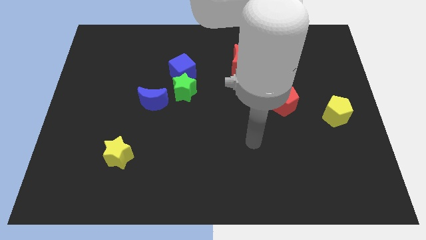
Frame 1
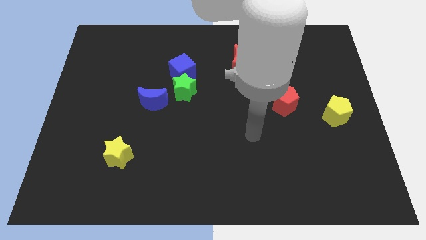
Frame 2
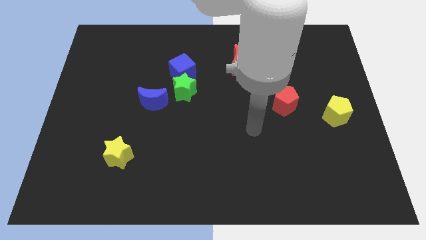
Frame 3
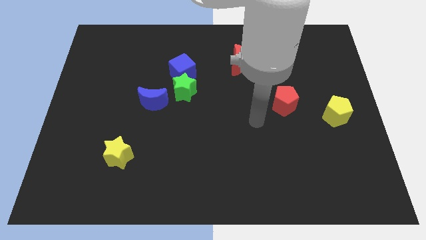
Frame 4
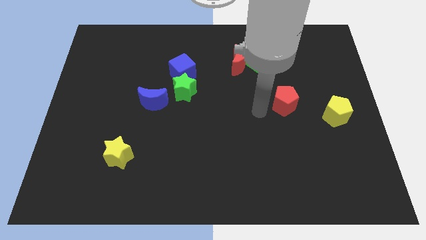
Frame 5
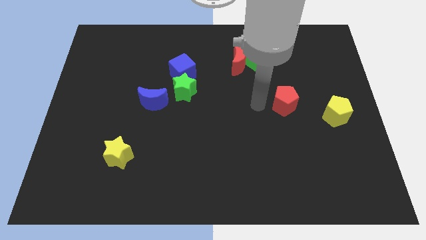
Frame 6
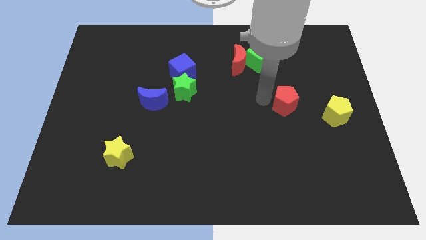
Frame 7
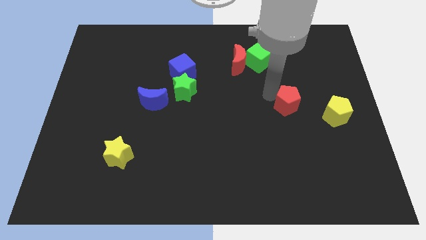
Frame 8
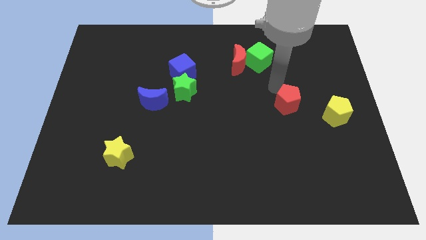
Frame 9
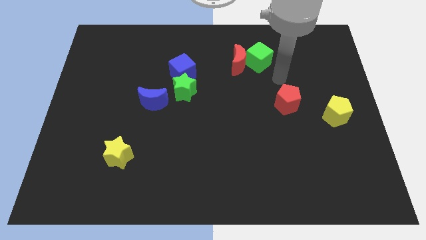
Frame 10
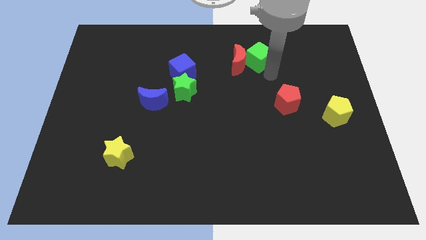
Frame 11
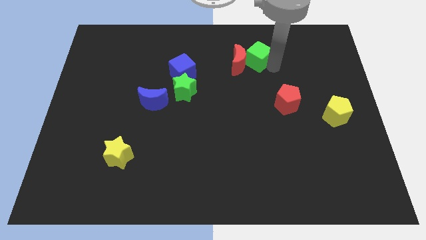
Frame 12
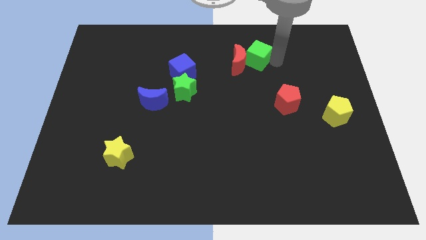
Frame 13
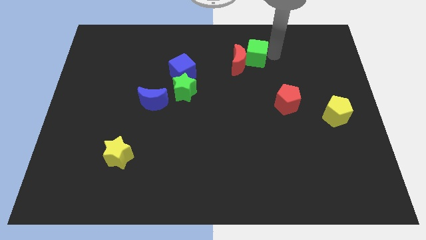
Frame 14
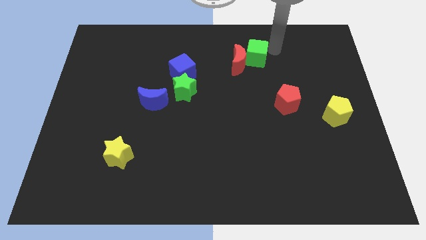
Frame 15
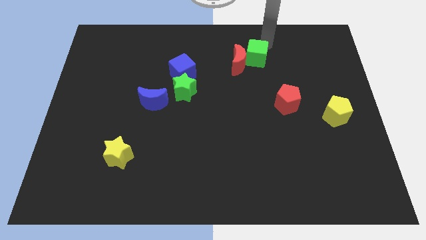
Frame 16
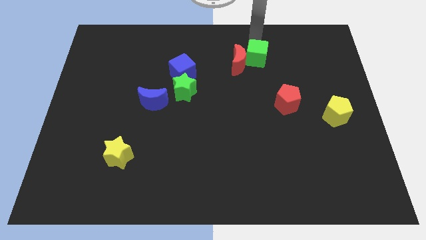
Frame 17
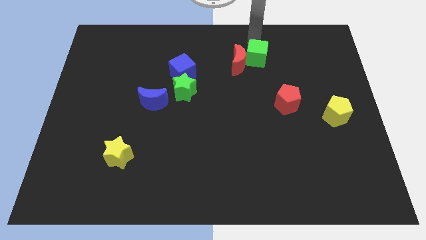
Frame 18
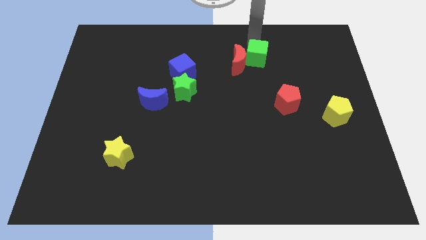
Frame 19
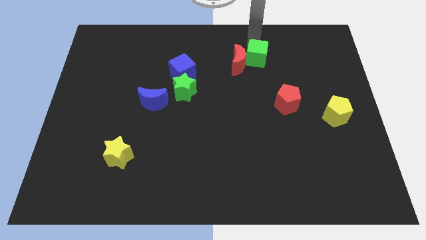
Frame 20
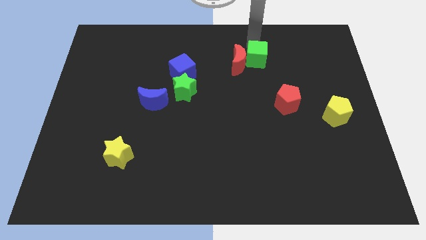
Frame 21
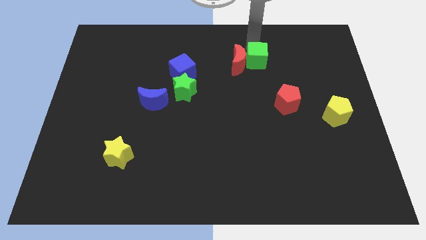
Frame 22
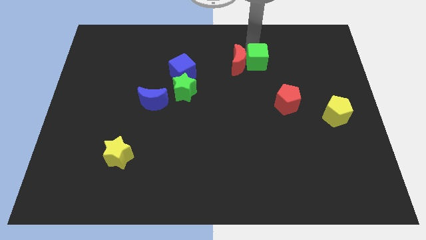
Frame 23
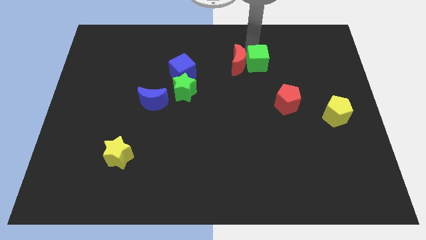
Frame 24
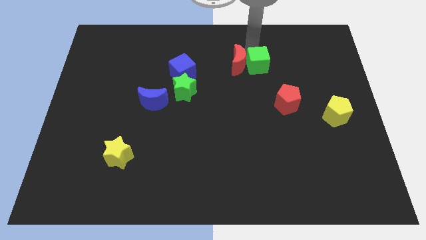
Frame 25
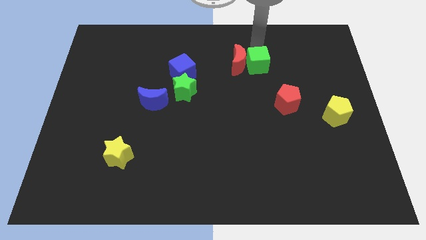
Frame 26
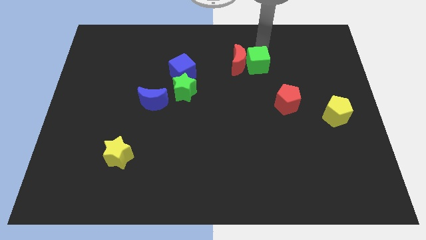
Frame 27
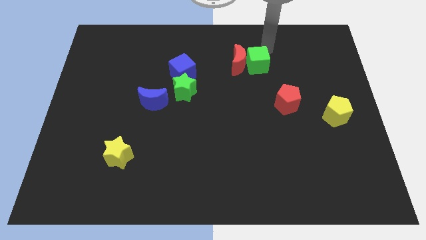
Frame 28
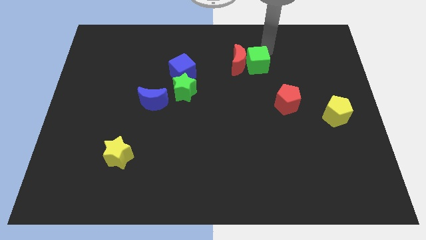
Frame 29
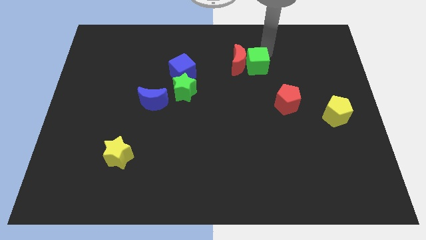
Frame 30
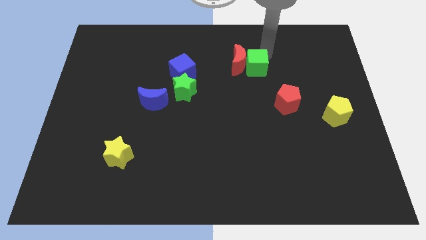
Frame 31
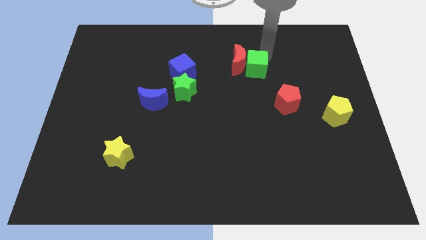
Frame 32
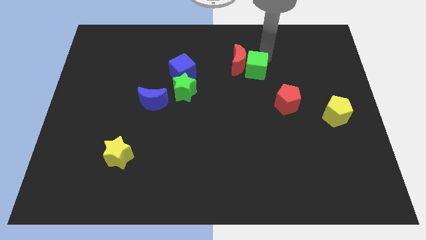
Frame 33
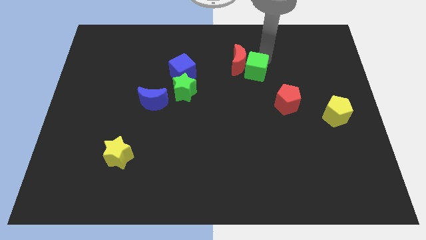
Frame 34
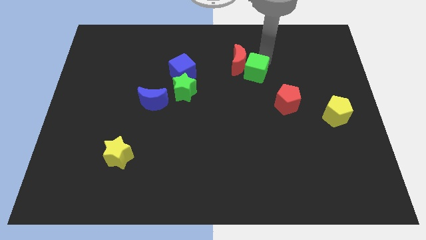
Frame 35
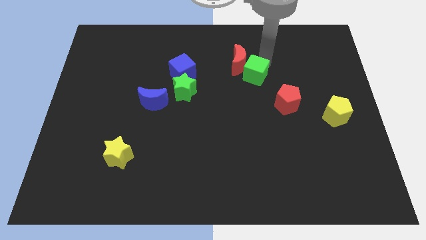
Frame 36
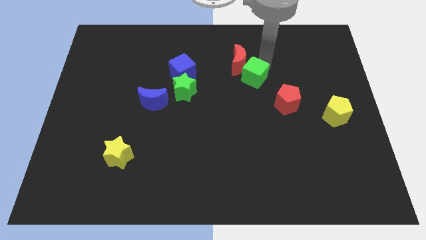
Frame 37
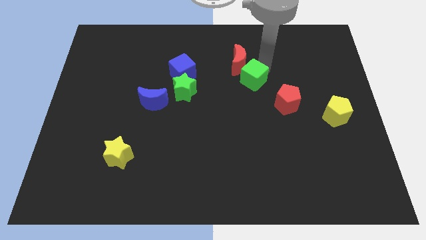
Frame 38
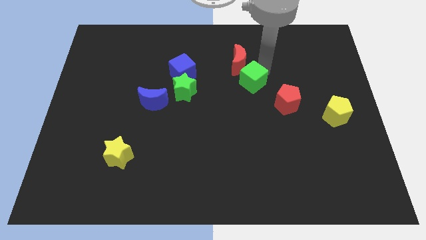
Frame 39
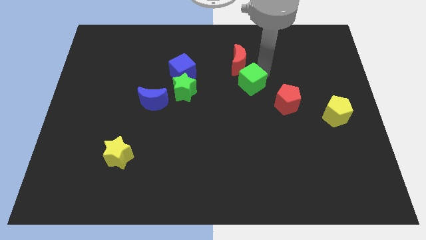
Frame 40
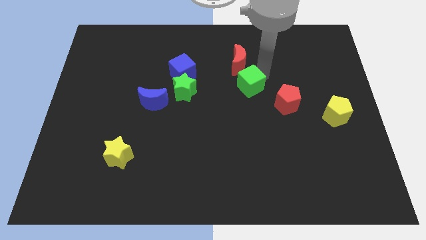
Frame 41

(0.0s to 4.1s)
move the green cube a little bit diagonally downwards and left

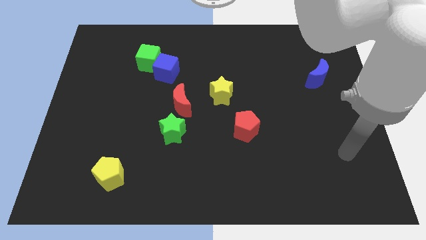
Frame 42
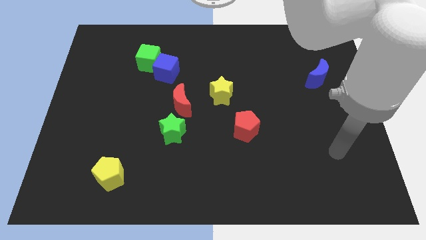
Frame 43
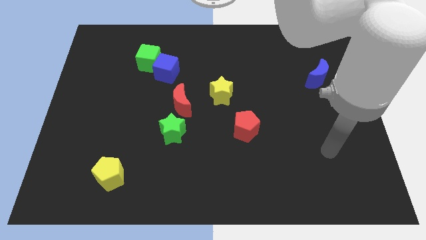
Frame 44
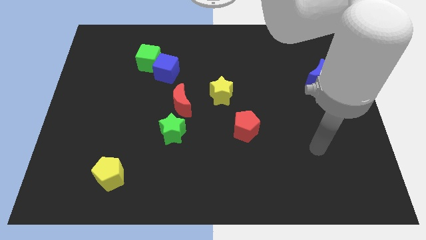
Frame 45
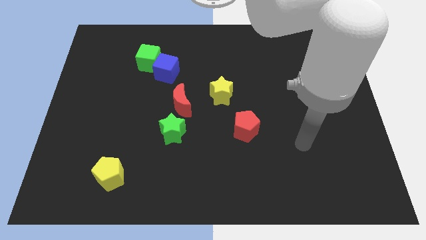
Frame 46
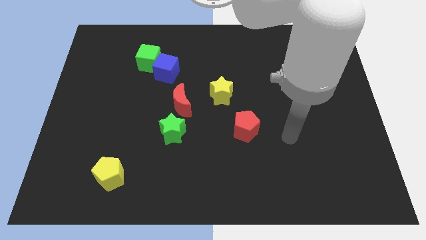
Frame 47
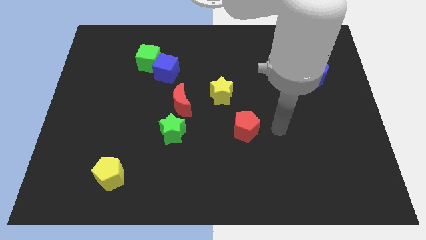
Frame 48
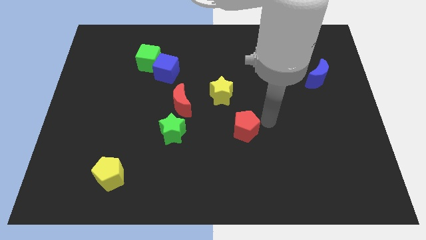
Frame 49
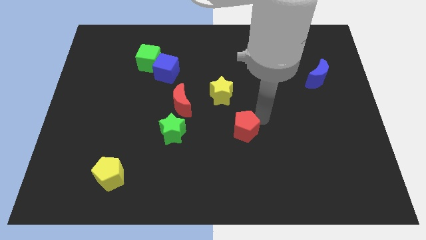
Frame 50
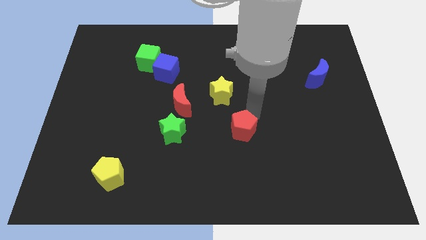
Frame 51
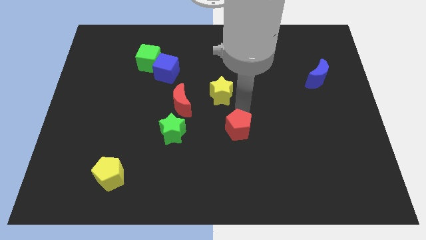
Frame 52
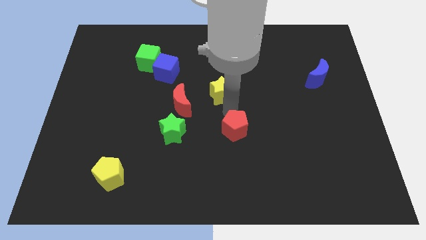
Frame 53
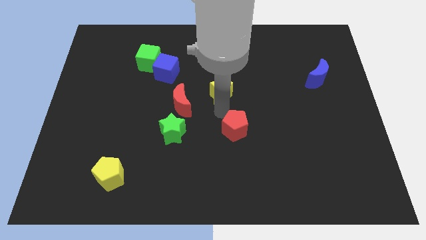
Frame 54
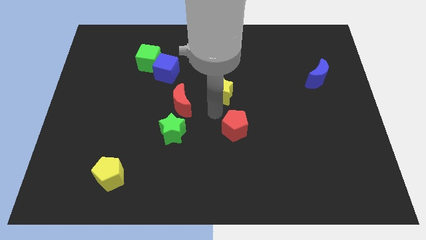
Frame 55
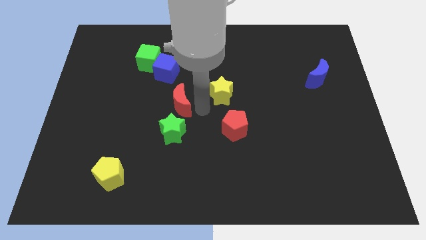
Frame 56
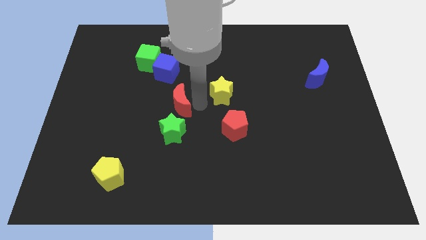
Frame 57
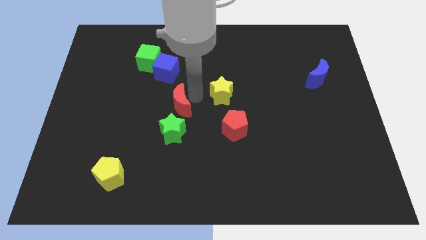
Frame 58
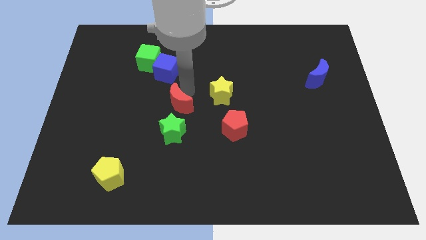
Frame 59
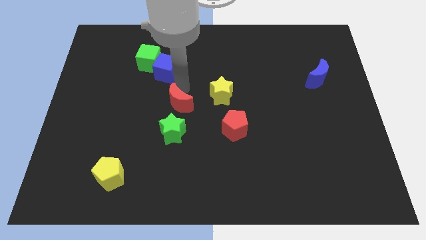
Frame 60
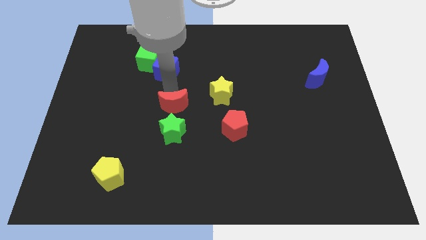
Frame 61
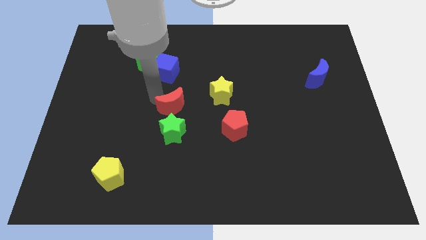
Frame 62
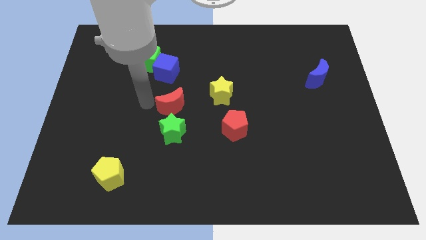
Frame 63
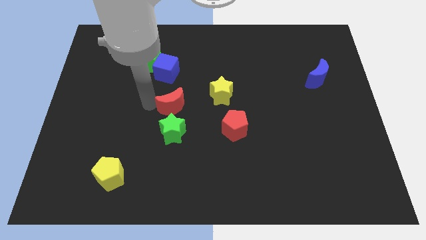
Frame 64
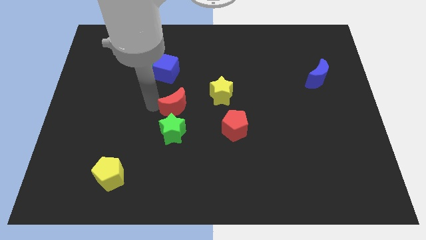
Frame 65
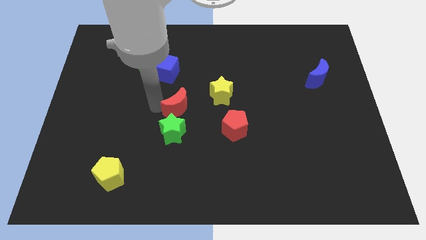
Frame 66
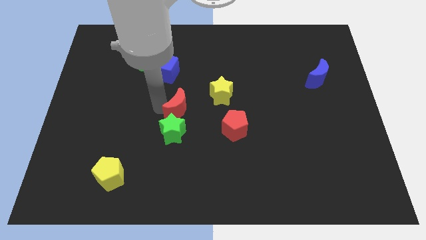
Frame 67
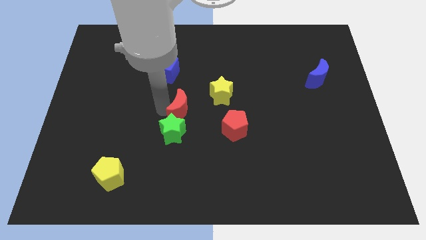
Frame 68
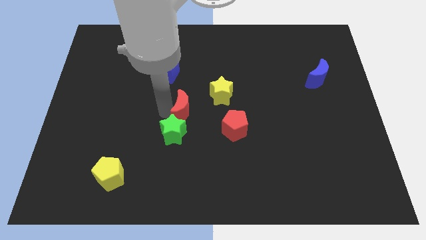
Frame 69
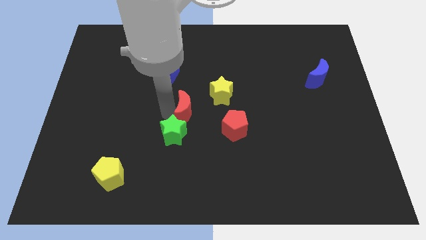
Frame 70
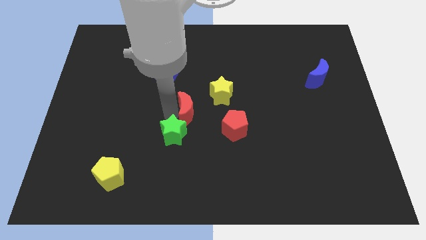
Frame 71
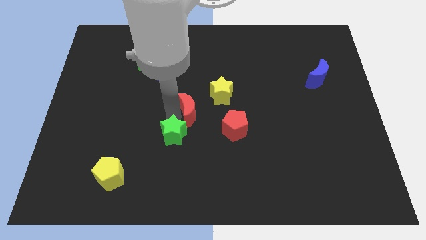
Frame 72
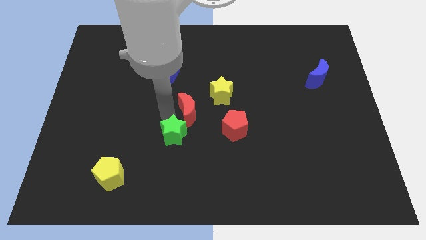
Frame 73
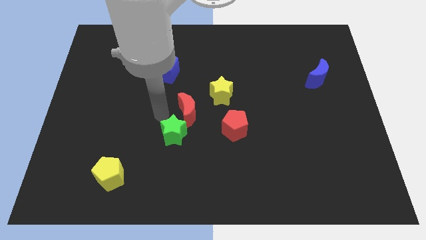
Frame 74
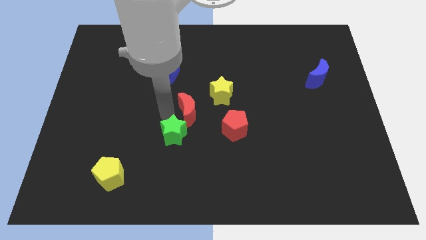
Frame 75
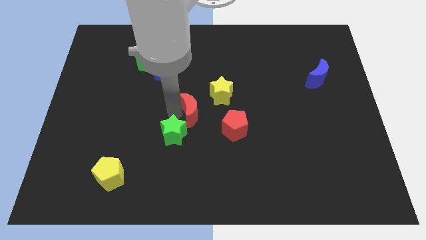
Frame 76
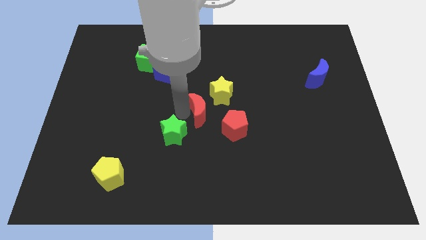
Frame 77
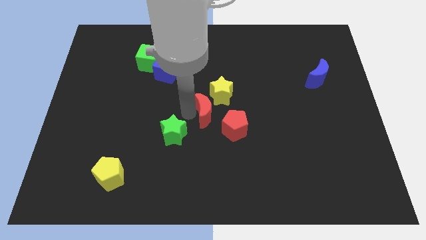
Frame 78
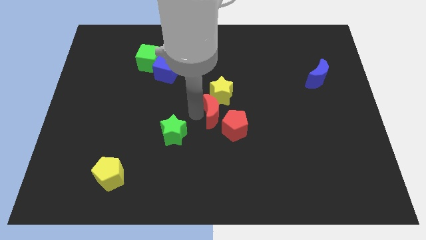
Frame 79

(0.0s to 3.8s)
move the red moon a little right
